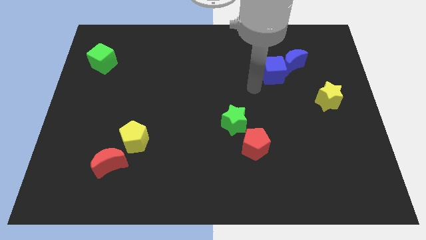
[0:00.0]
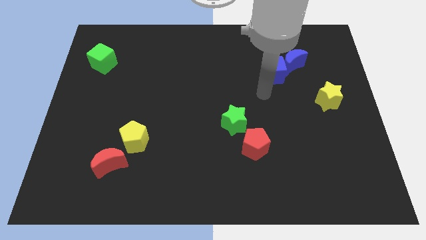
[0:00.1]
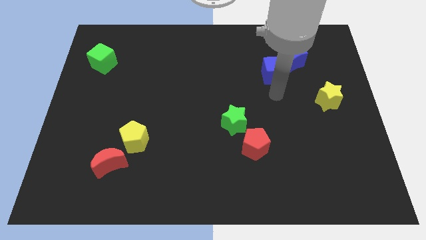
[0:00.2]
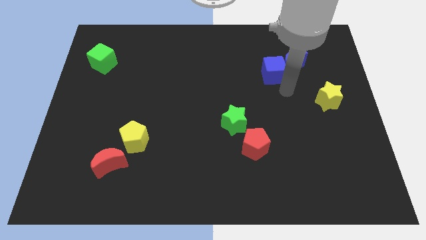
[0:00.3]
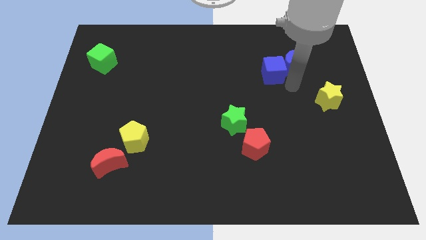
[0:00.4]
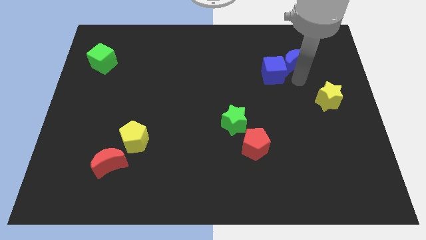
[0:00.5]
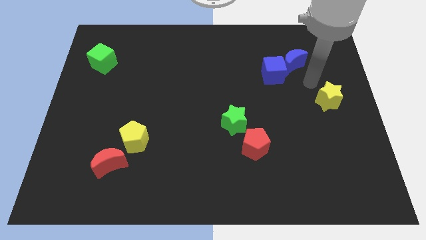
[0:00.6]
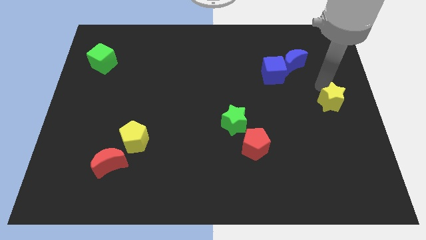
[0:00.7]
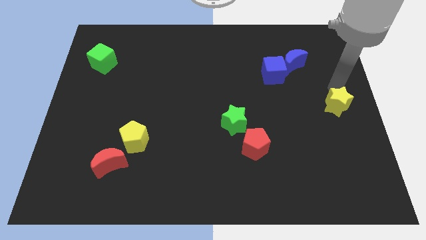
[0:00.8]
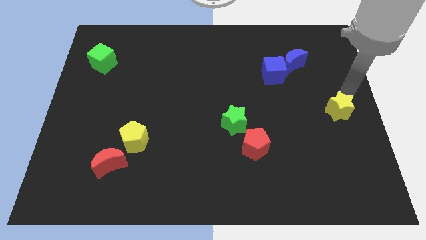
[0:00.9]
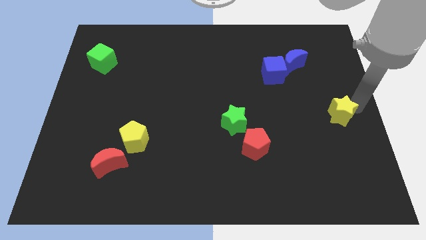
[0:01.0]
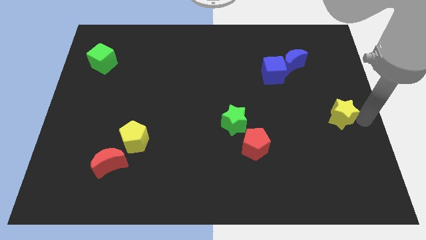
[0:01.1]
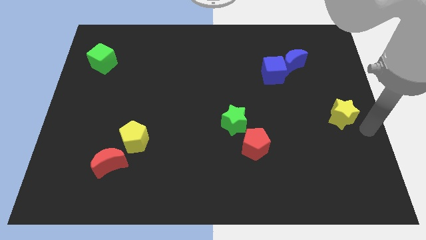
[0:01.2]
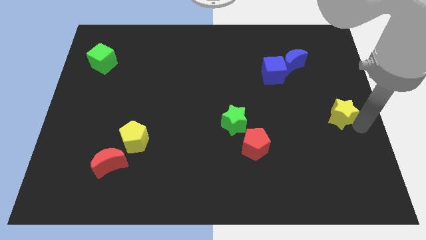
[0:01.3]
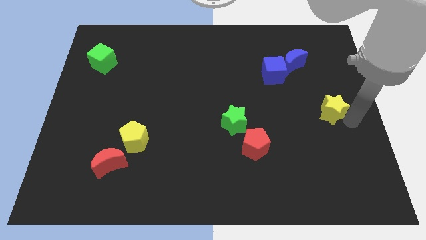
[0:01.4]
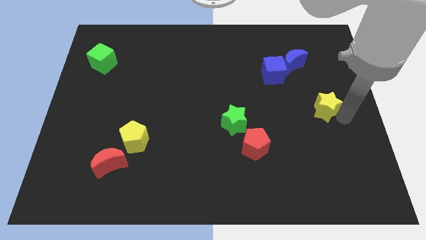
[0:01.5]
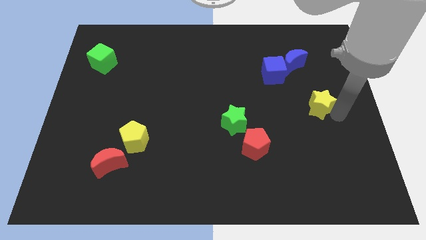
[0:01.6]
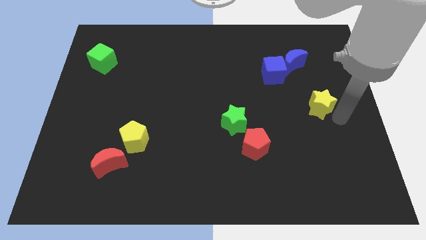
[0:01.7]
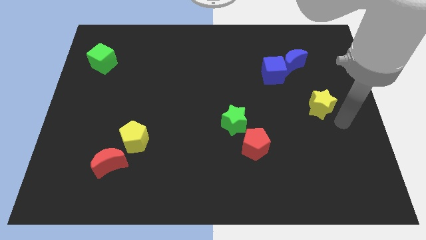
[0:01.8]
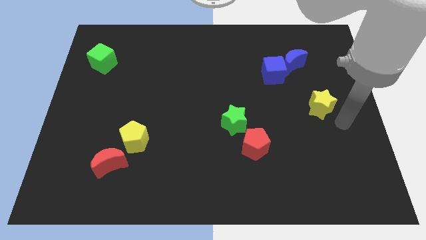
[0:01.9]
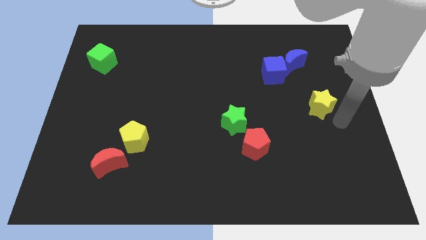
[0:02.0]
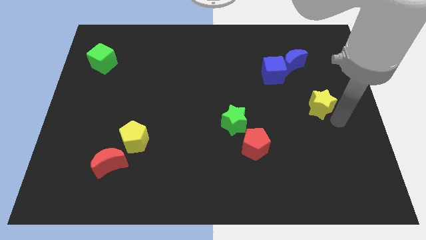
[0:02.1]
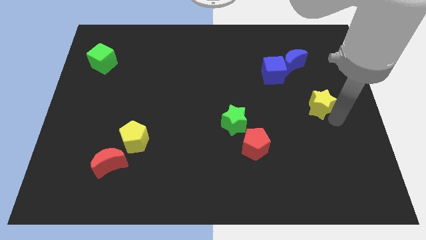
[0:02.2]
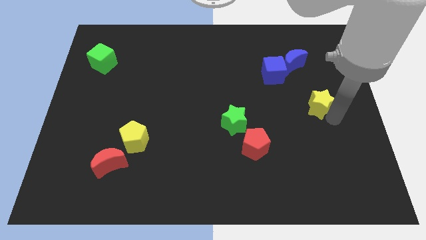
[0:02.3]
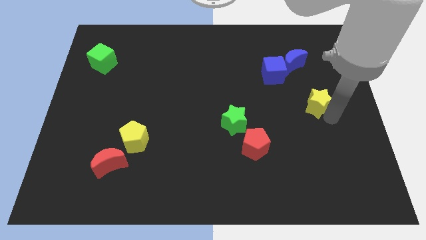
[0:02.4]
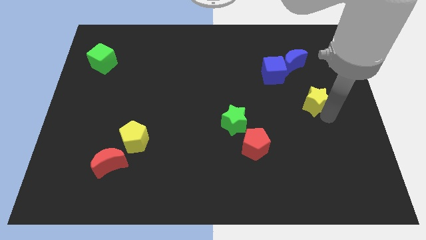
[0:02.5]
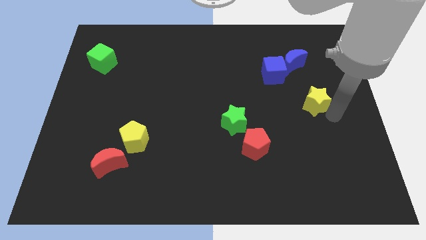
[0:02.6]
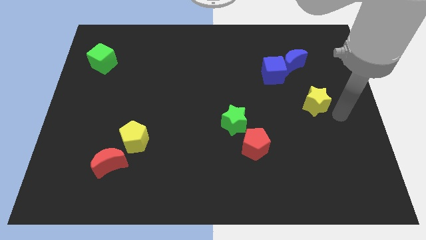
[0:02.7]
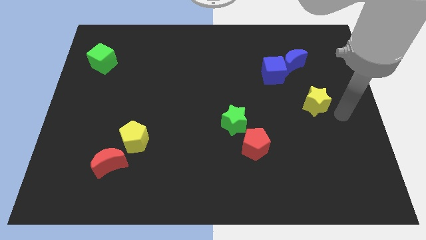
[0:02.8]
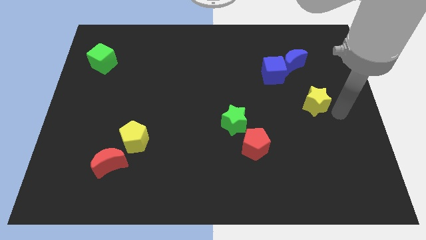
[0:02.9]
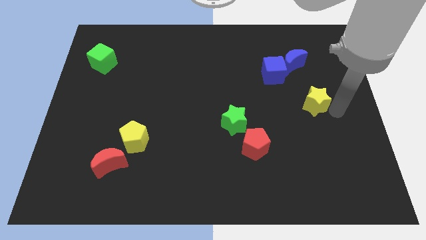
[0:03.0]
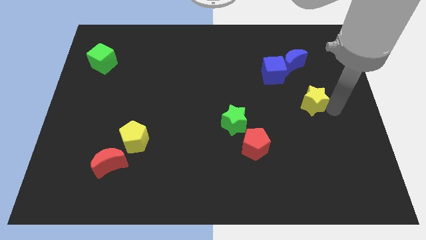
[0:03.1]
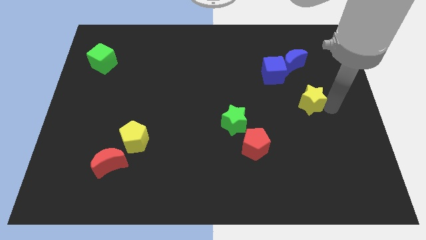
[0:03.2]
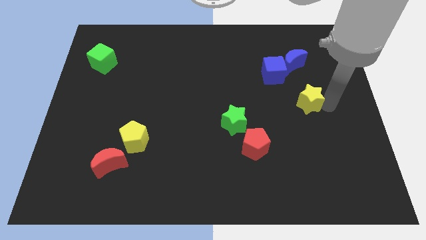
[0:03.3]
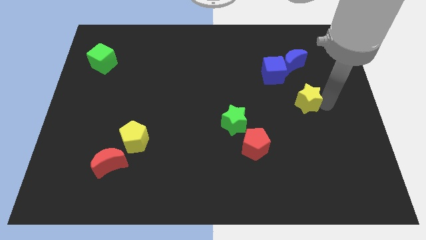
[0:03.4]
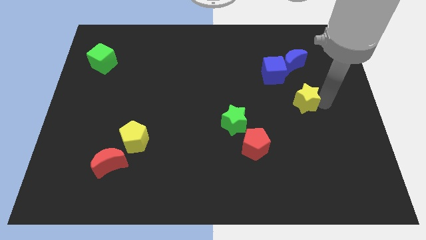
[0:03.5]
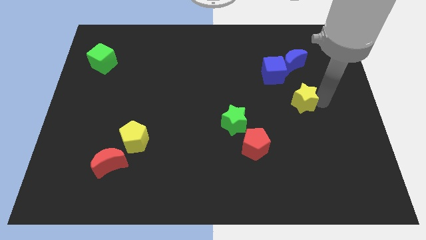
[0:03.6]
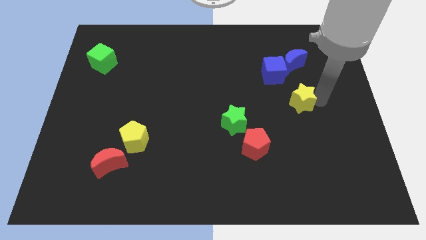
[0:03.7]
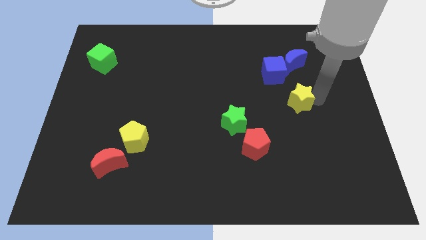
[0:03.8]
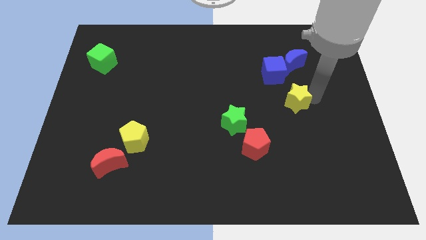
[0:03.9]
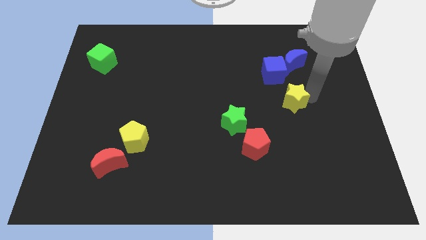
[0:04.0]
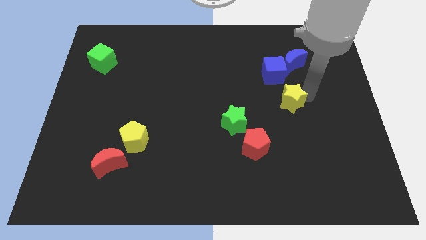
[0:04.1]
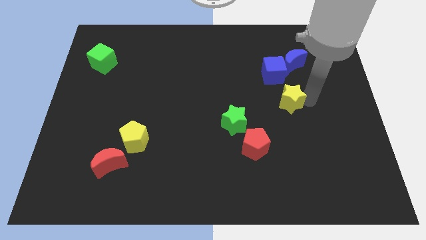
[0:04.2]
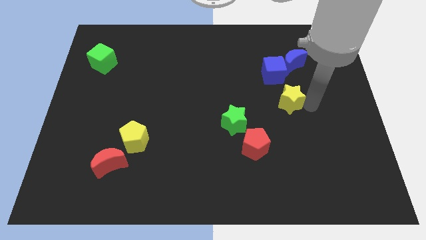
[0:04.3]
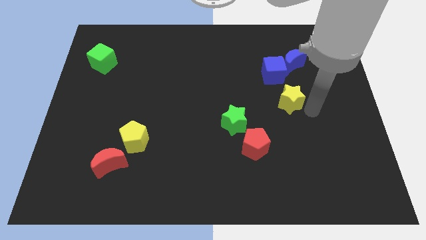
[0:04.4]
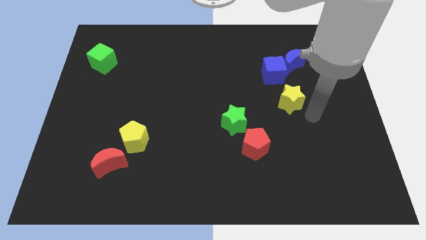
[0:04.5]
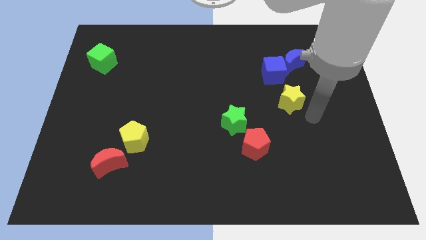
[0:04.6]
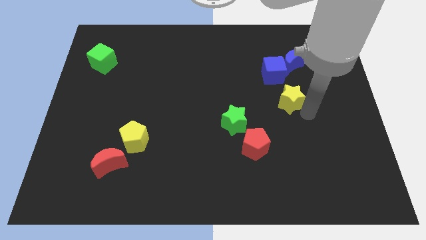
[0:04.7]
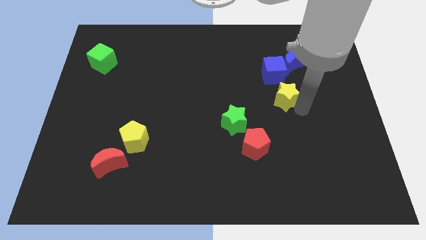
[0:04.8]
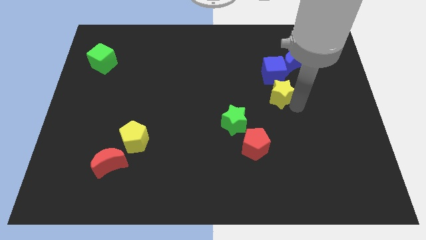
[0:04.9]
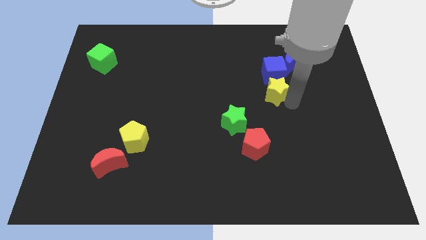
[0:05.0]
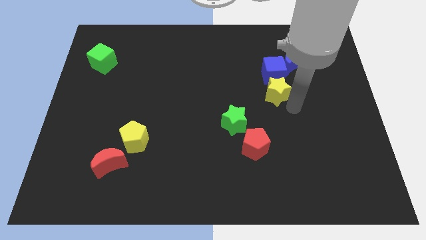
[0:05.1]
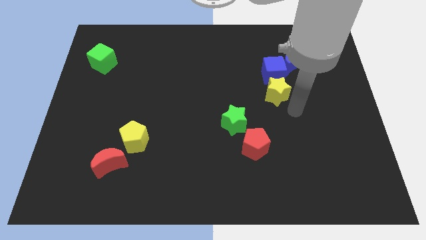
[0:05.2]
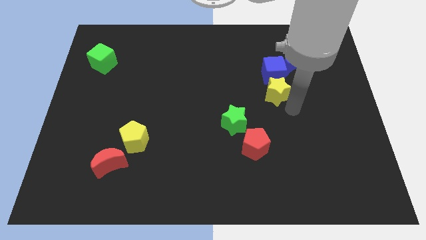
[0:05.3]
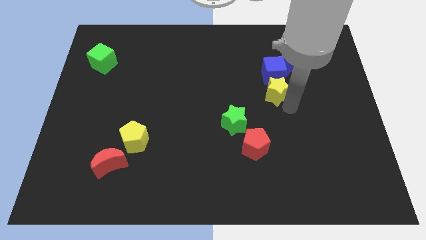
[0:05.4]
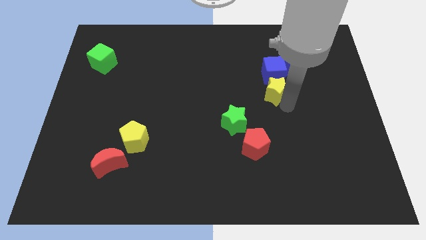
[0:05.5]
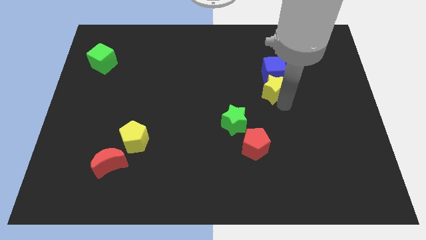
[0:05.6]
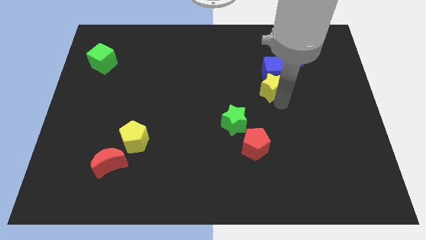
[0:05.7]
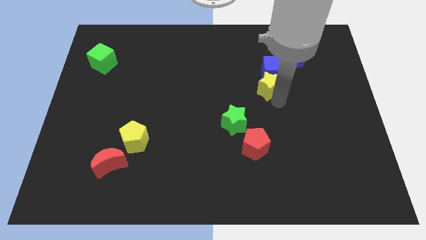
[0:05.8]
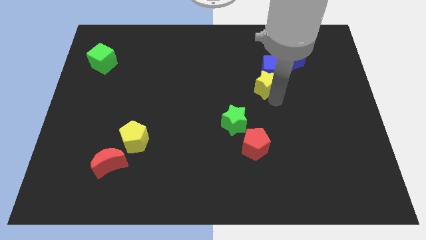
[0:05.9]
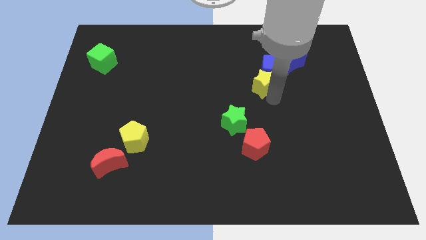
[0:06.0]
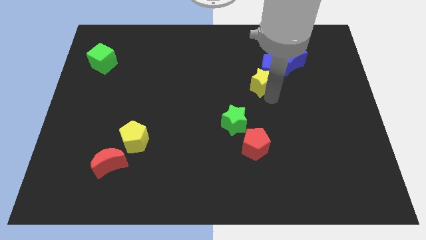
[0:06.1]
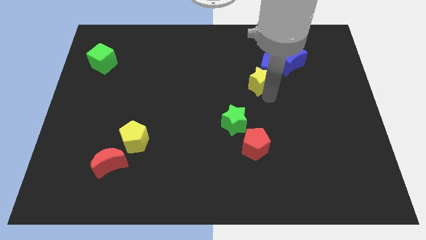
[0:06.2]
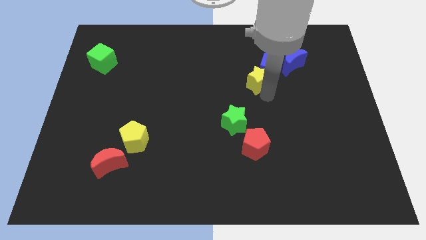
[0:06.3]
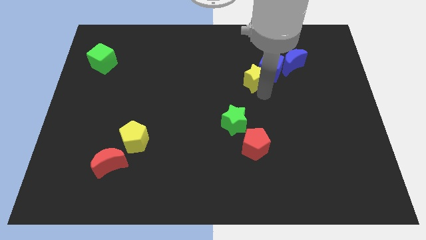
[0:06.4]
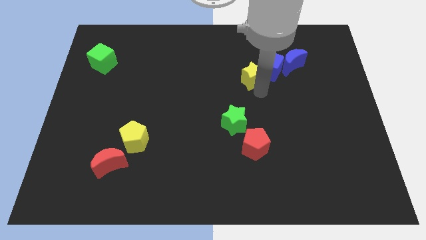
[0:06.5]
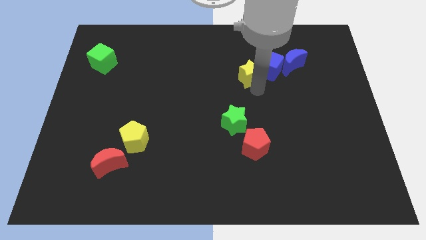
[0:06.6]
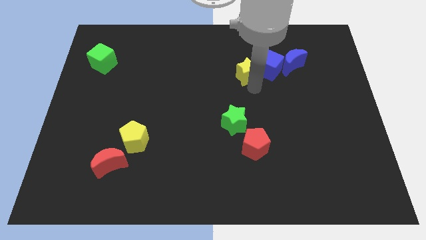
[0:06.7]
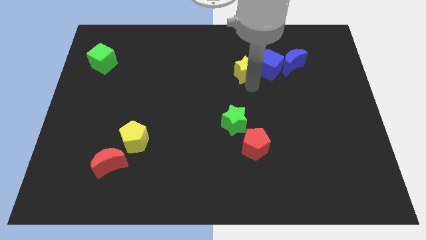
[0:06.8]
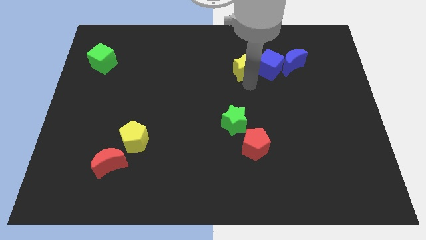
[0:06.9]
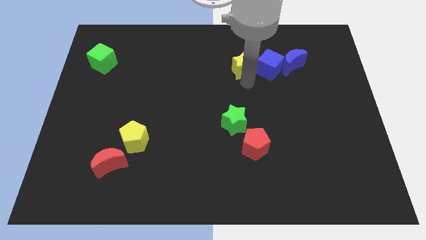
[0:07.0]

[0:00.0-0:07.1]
put the yellow star to the top left side of the blue cube
